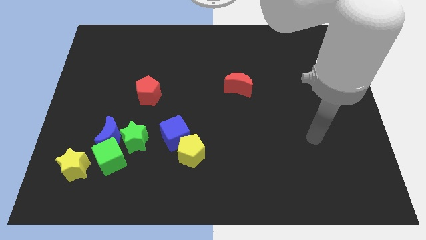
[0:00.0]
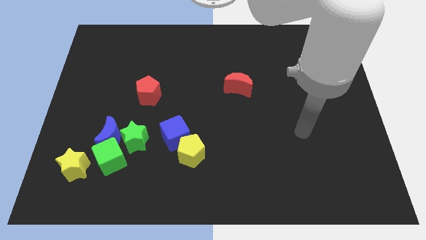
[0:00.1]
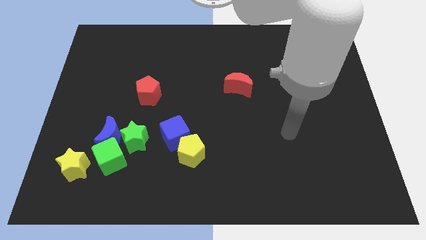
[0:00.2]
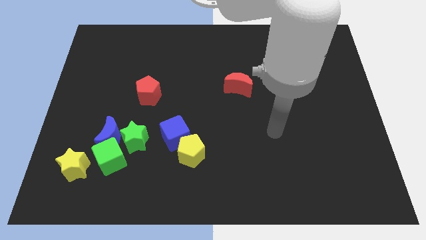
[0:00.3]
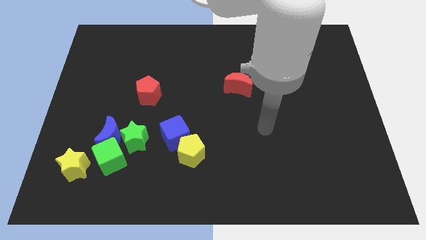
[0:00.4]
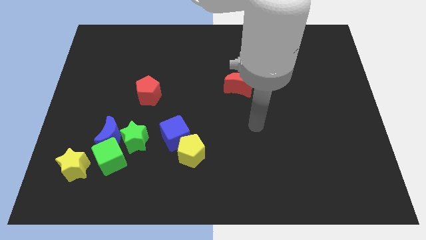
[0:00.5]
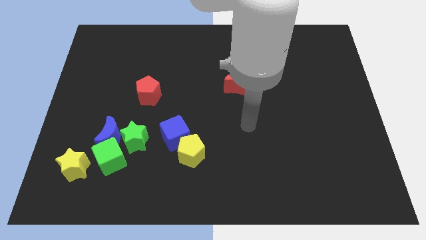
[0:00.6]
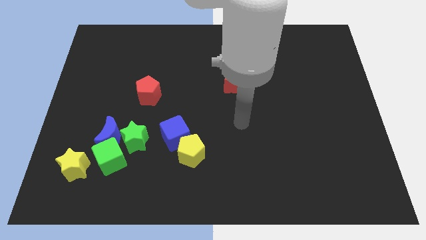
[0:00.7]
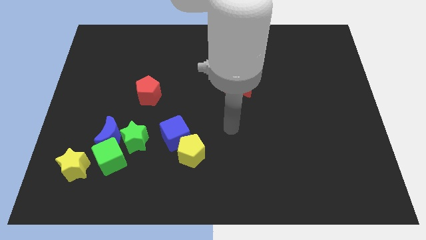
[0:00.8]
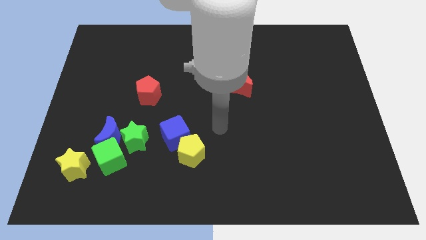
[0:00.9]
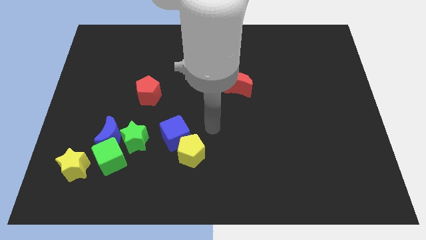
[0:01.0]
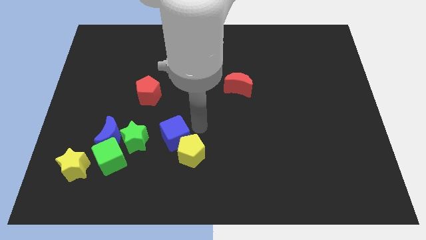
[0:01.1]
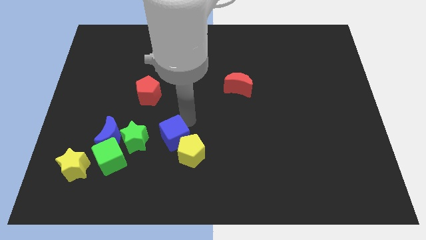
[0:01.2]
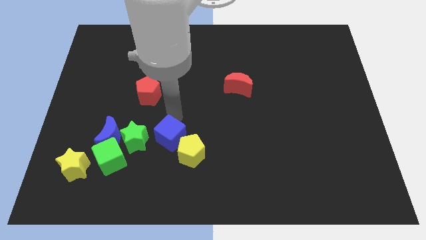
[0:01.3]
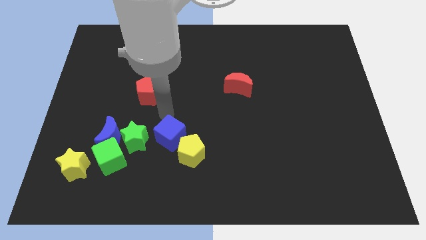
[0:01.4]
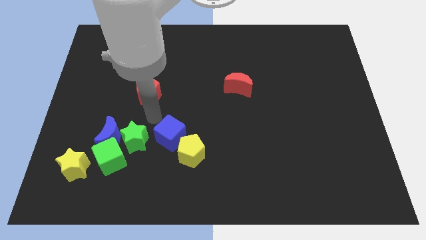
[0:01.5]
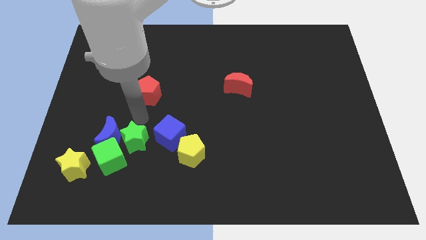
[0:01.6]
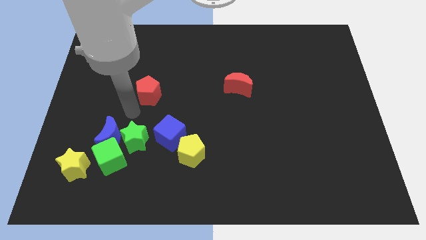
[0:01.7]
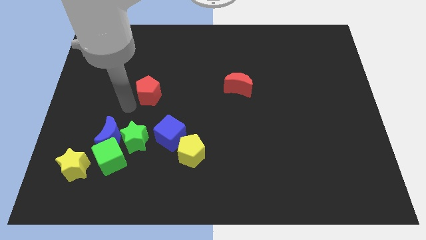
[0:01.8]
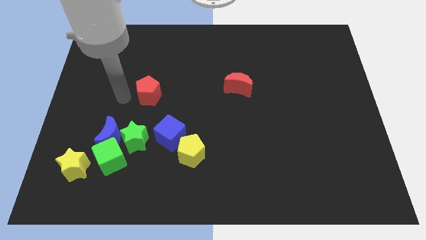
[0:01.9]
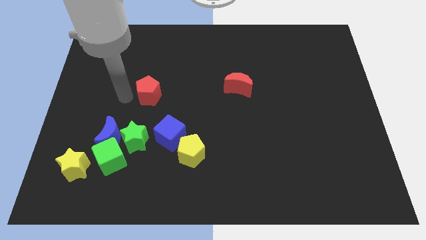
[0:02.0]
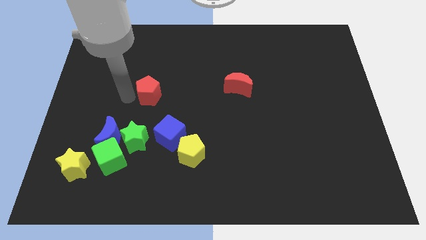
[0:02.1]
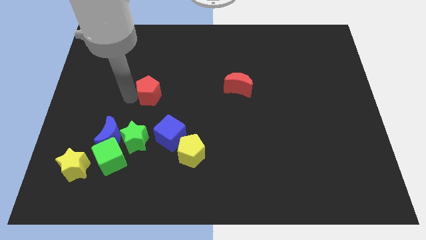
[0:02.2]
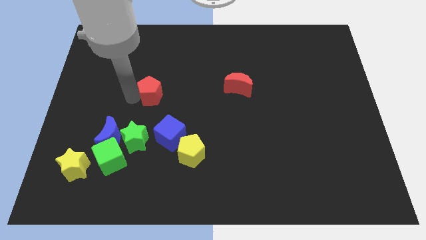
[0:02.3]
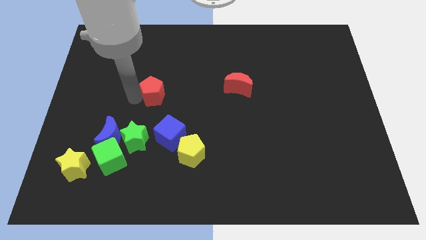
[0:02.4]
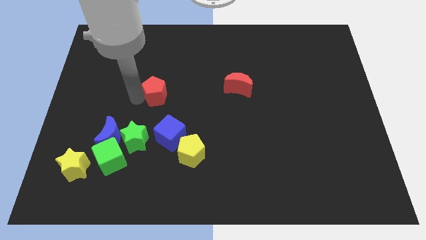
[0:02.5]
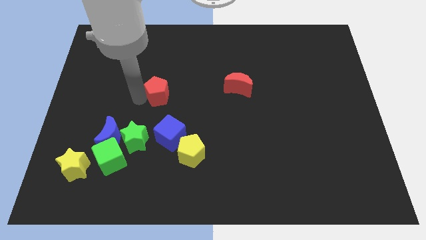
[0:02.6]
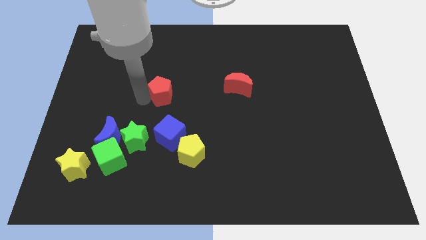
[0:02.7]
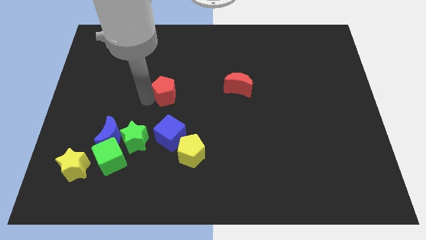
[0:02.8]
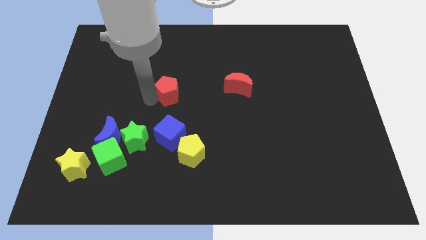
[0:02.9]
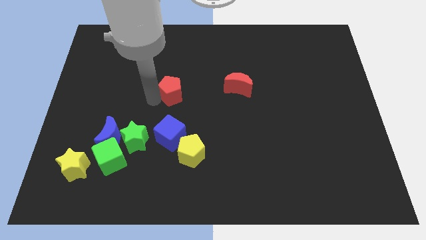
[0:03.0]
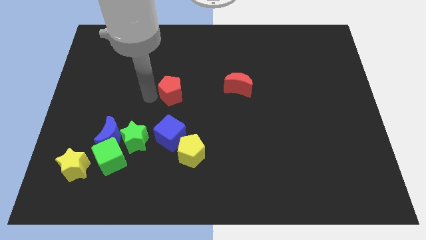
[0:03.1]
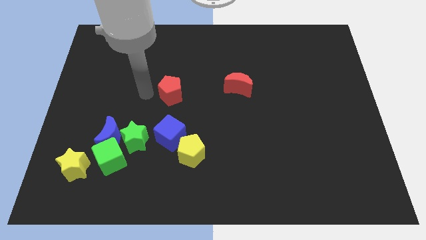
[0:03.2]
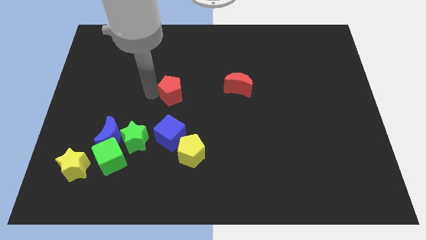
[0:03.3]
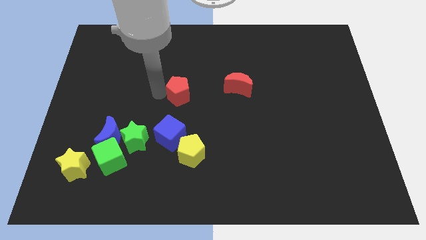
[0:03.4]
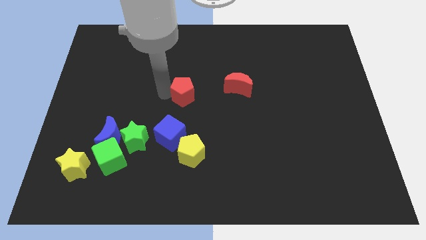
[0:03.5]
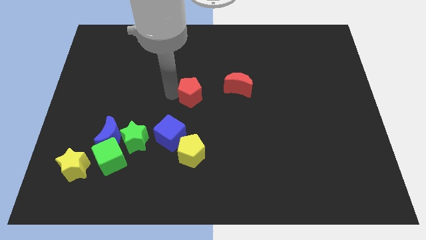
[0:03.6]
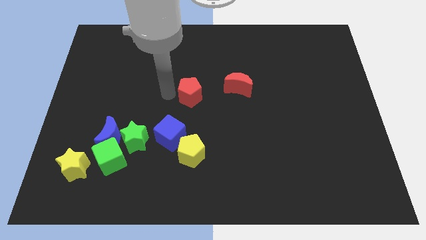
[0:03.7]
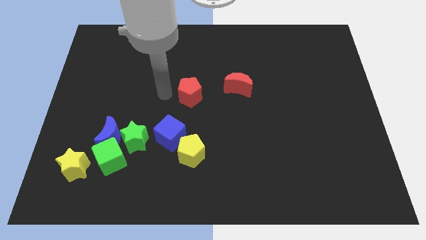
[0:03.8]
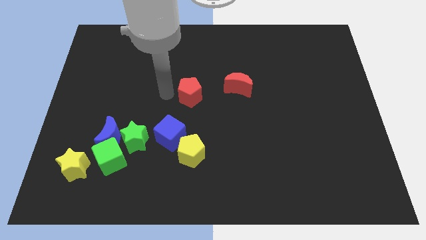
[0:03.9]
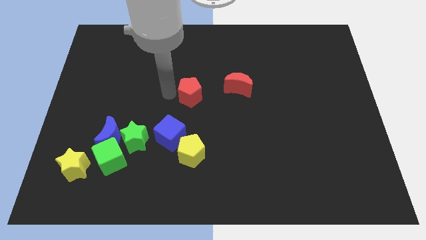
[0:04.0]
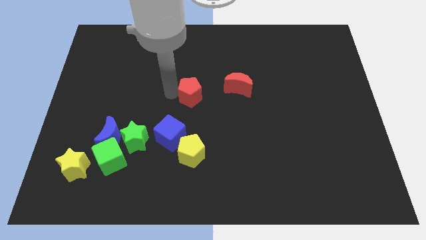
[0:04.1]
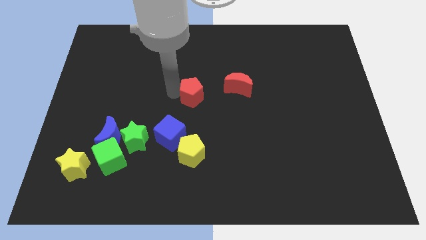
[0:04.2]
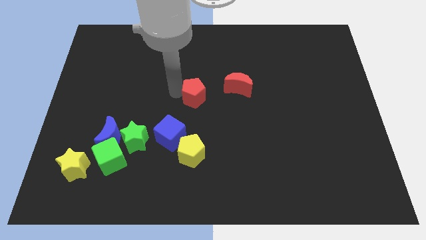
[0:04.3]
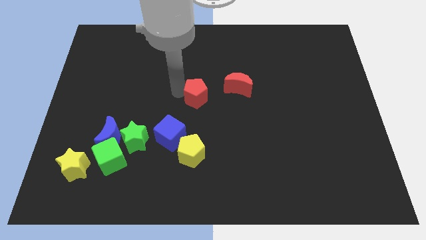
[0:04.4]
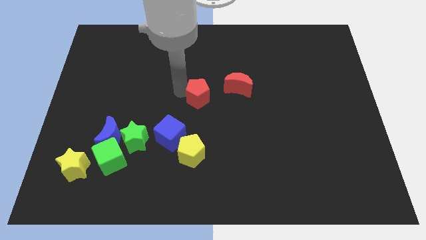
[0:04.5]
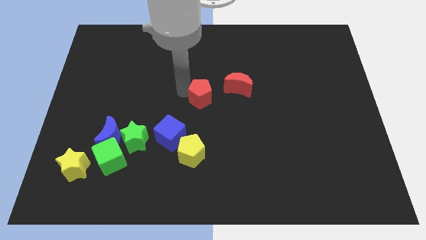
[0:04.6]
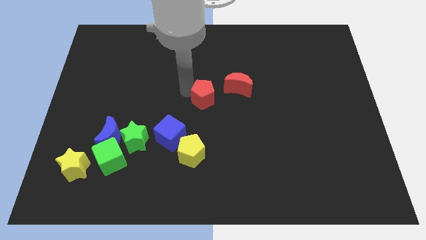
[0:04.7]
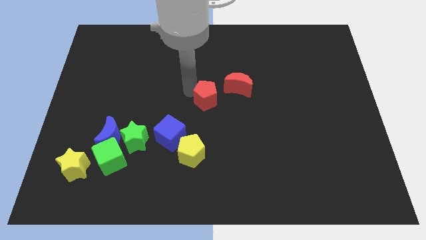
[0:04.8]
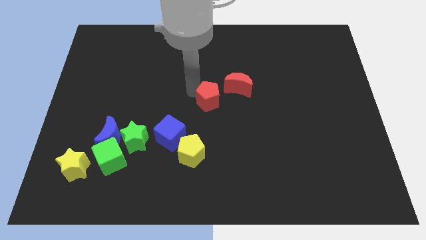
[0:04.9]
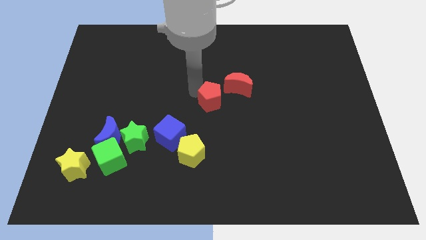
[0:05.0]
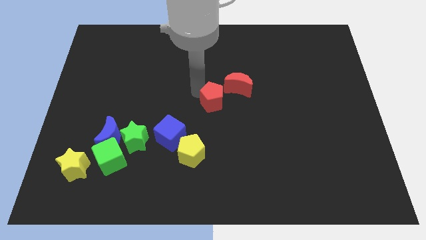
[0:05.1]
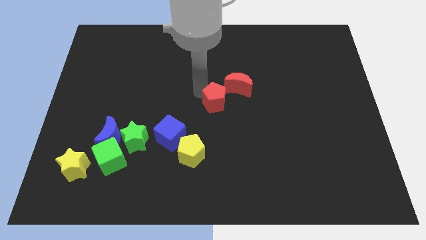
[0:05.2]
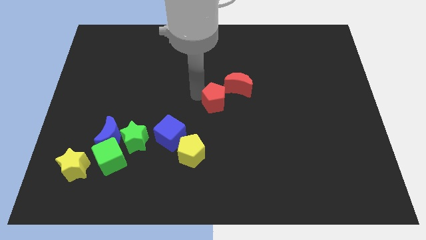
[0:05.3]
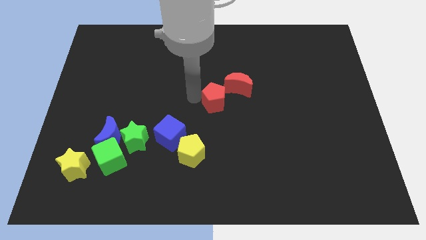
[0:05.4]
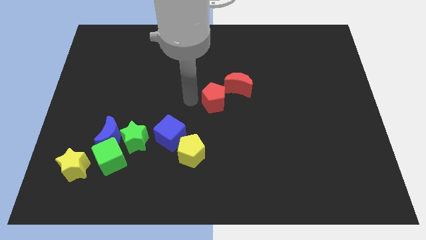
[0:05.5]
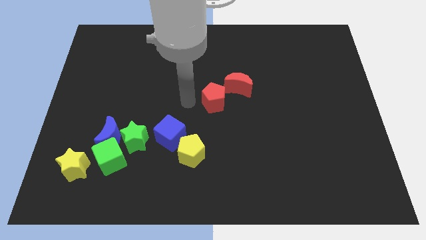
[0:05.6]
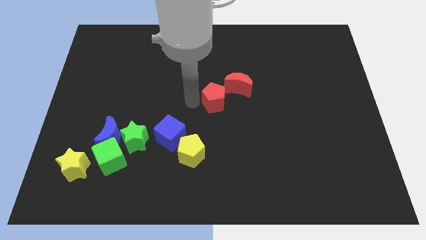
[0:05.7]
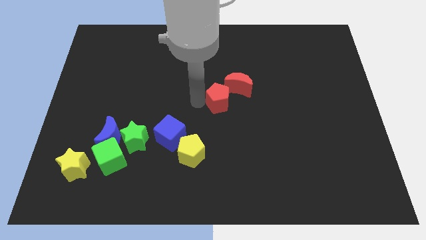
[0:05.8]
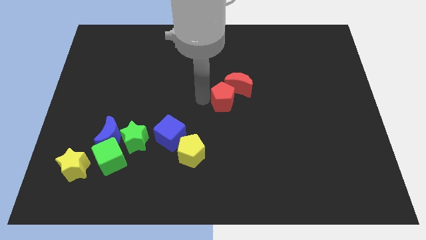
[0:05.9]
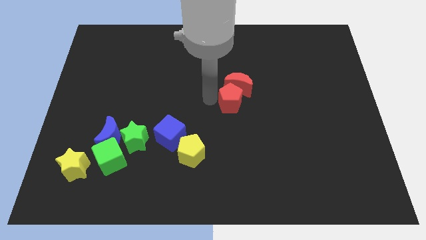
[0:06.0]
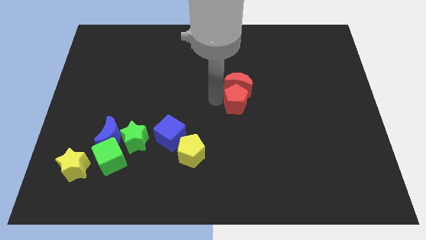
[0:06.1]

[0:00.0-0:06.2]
move the red pentagon right

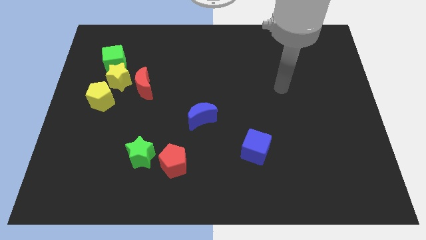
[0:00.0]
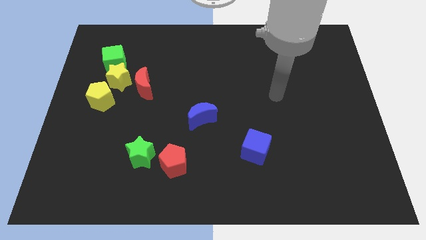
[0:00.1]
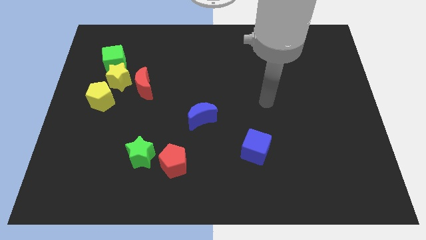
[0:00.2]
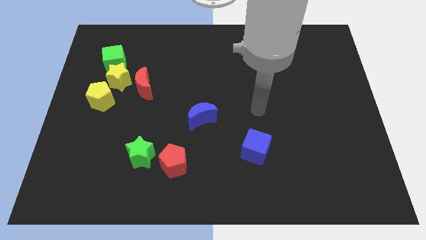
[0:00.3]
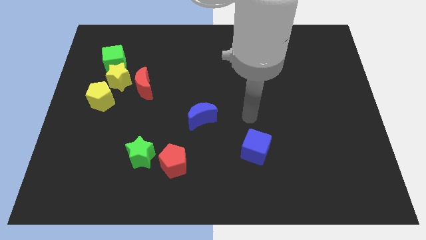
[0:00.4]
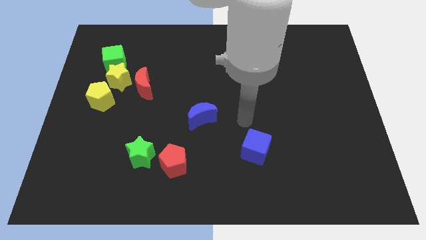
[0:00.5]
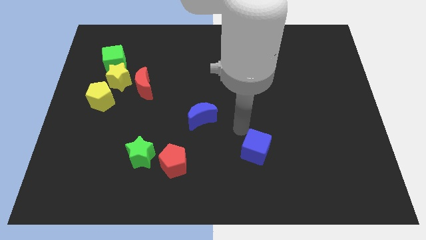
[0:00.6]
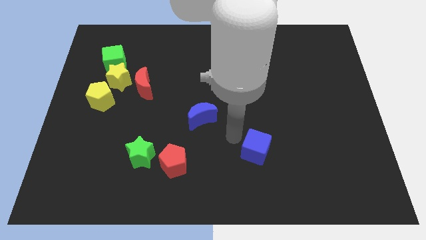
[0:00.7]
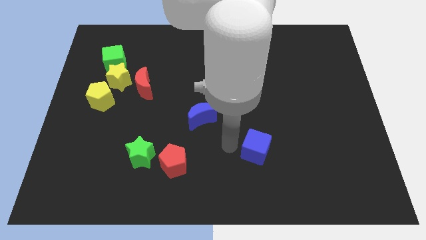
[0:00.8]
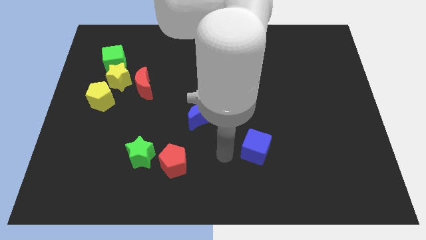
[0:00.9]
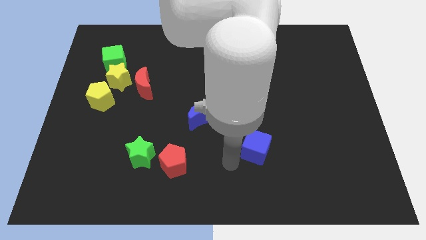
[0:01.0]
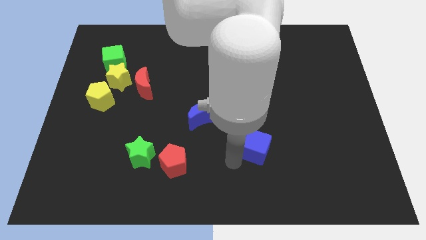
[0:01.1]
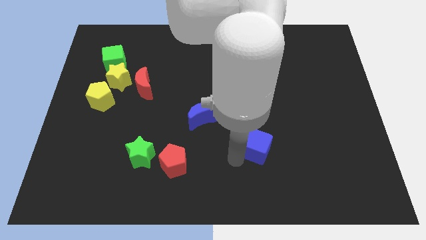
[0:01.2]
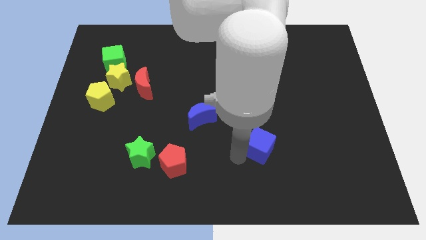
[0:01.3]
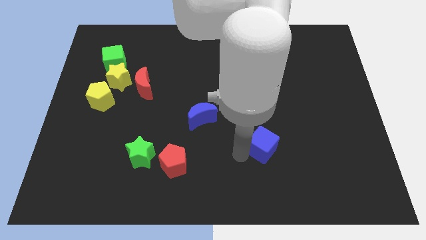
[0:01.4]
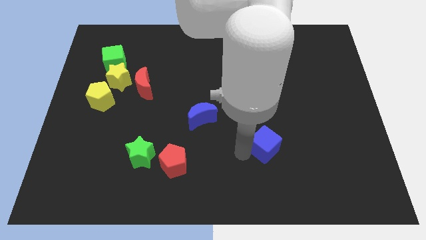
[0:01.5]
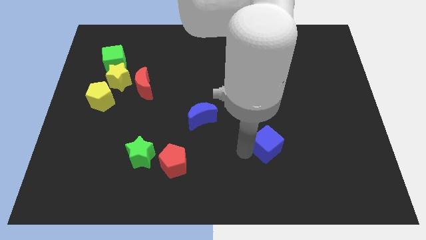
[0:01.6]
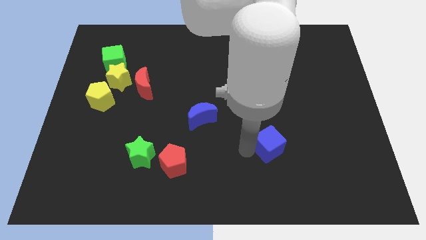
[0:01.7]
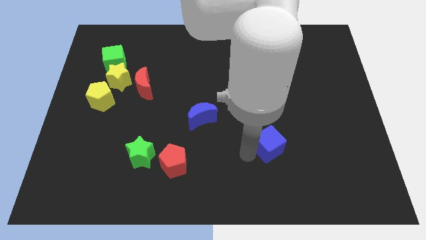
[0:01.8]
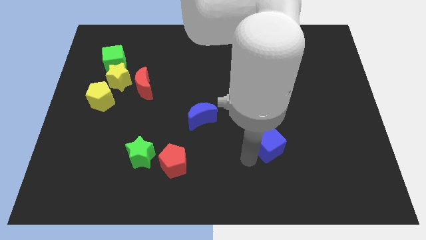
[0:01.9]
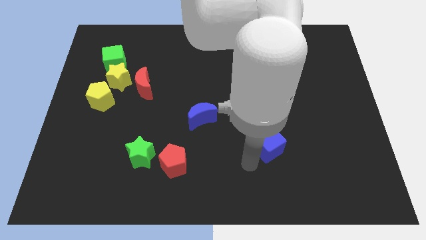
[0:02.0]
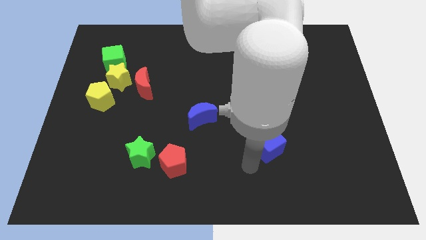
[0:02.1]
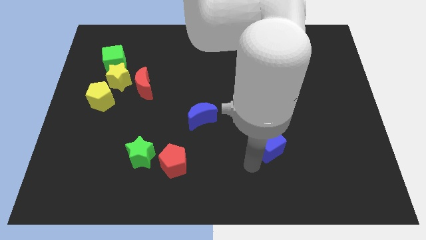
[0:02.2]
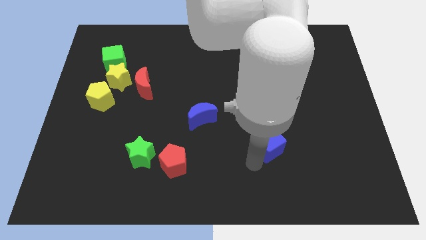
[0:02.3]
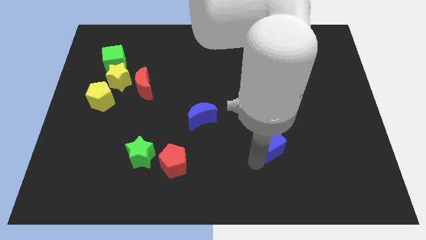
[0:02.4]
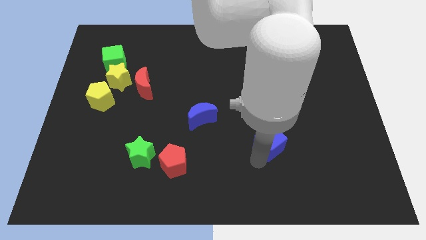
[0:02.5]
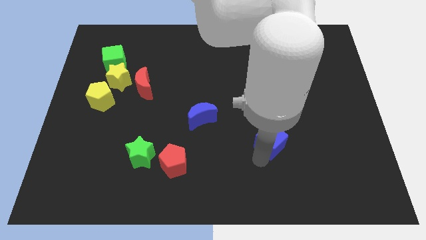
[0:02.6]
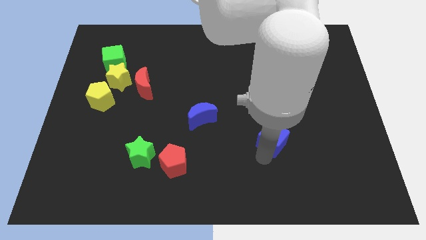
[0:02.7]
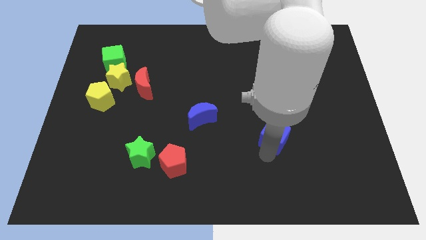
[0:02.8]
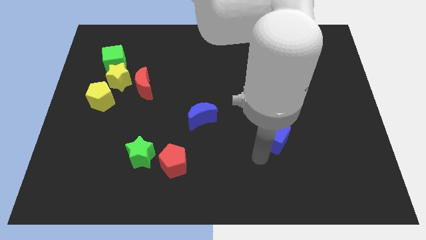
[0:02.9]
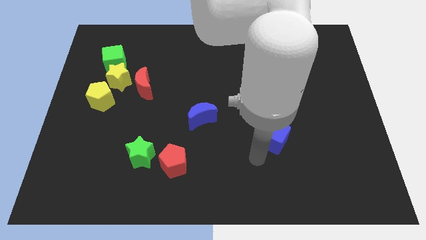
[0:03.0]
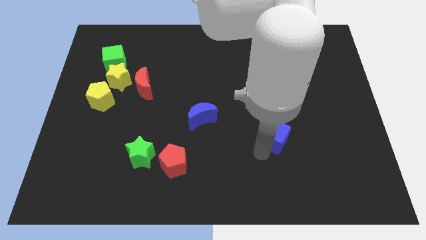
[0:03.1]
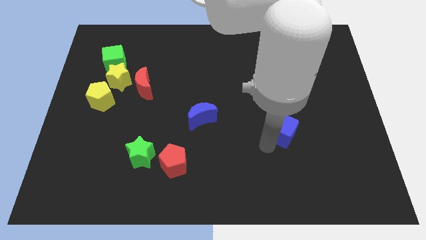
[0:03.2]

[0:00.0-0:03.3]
push the blue cube slightly diagonally up and right
